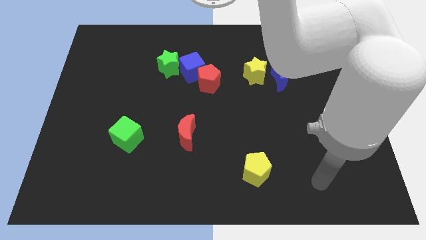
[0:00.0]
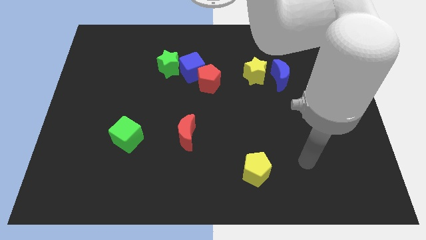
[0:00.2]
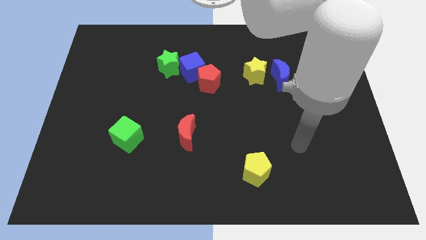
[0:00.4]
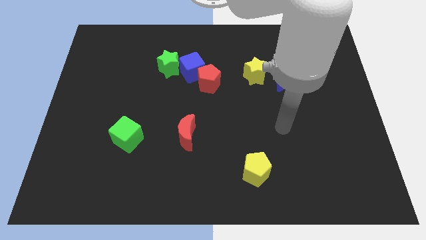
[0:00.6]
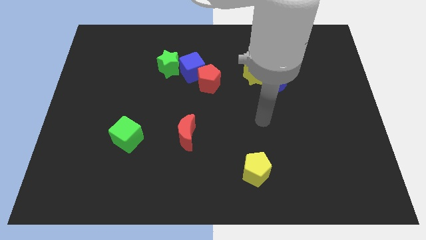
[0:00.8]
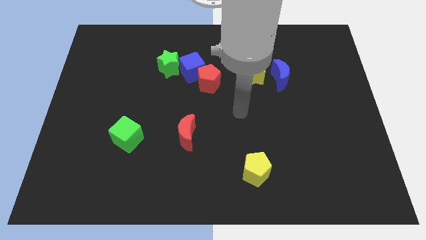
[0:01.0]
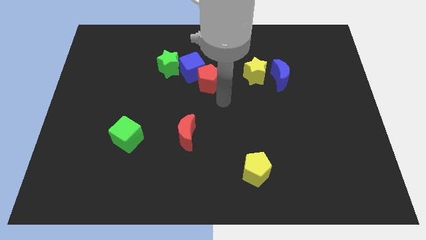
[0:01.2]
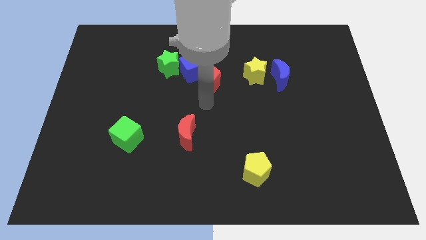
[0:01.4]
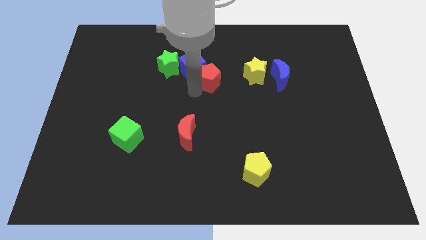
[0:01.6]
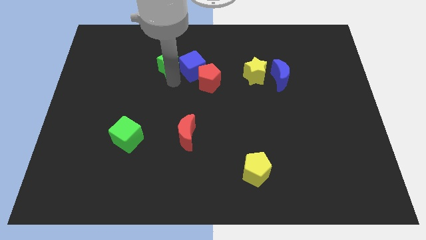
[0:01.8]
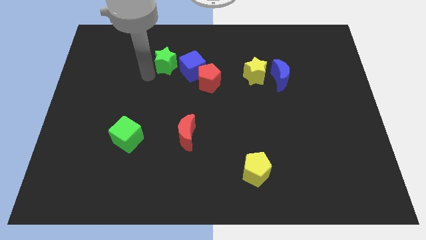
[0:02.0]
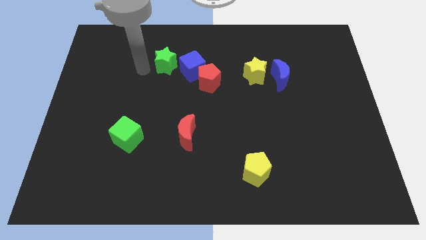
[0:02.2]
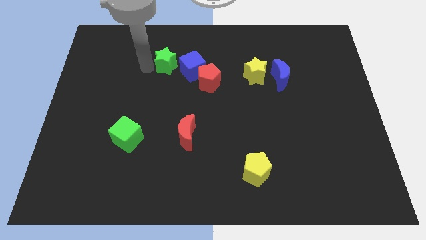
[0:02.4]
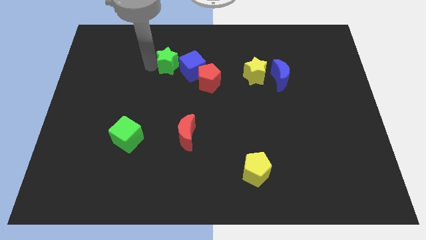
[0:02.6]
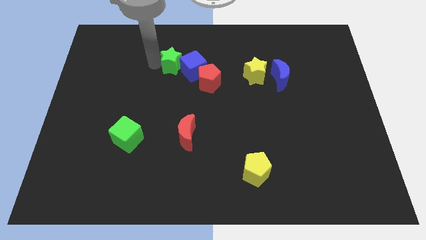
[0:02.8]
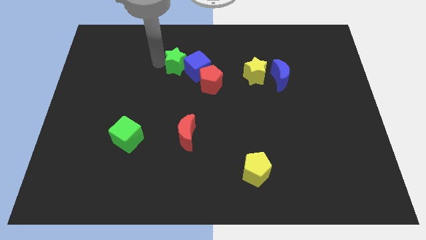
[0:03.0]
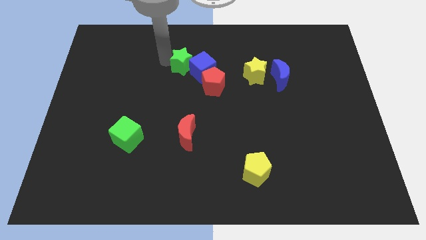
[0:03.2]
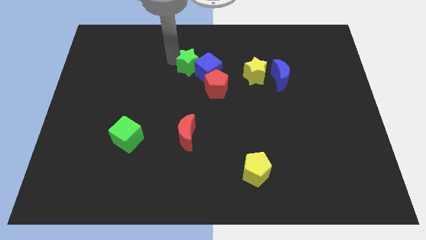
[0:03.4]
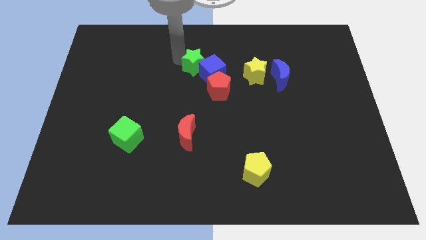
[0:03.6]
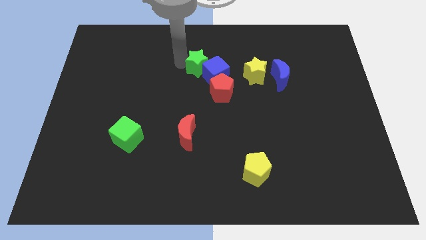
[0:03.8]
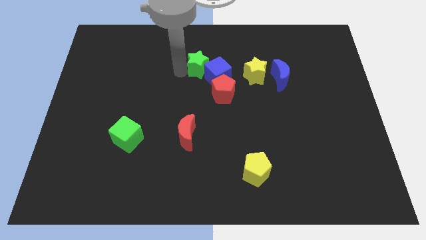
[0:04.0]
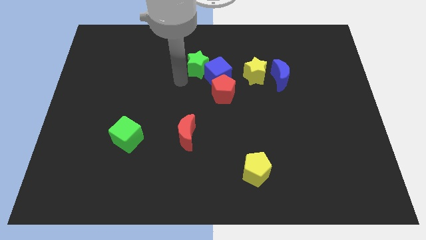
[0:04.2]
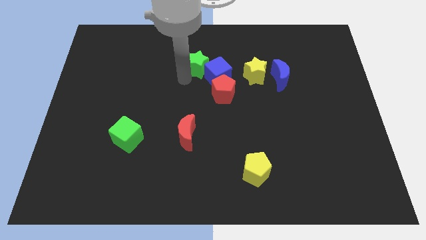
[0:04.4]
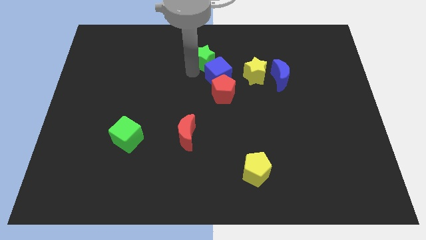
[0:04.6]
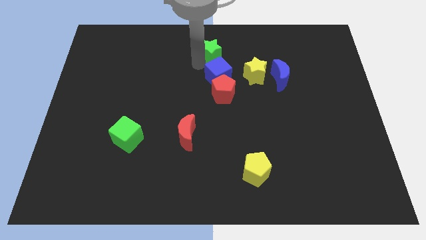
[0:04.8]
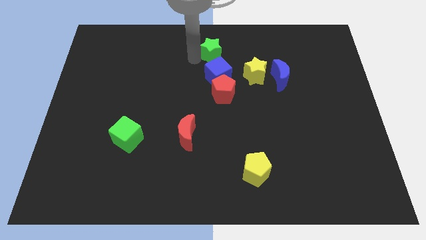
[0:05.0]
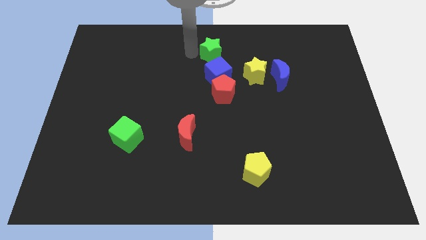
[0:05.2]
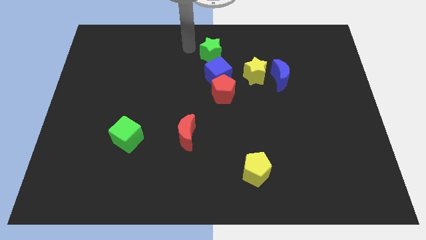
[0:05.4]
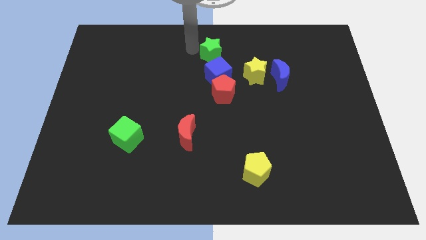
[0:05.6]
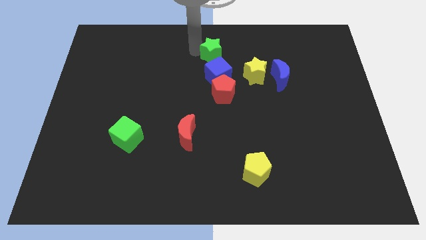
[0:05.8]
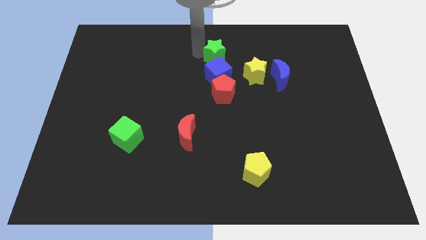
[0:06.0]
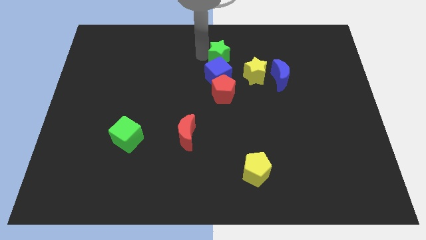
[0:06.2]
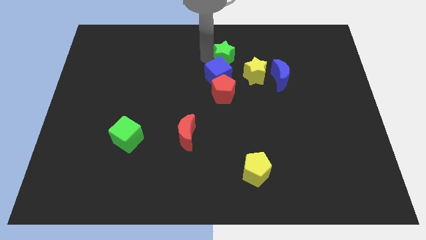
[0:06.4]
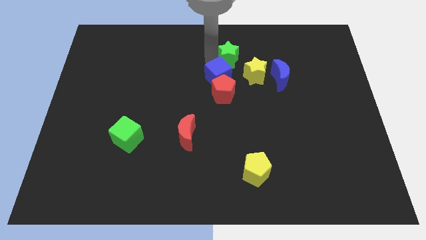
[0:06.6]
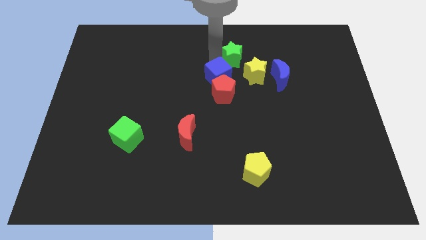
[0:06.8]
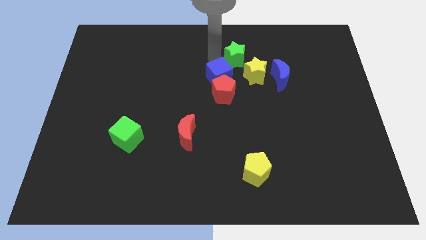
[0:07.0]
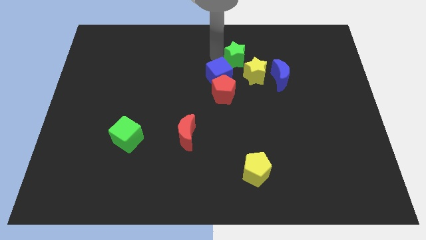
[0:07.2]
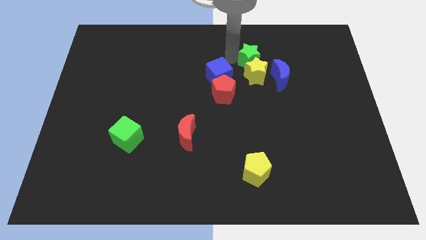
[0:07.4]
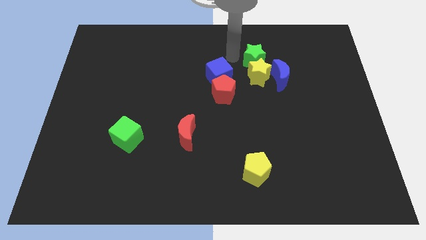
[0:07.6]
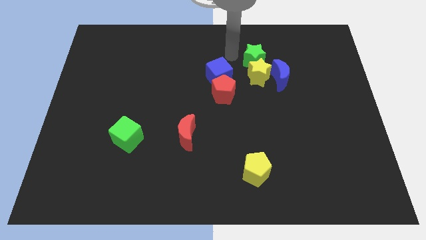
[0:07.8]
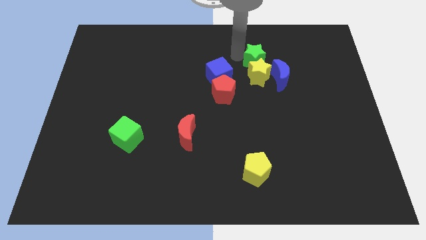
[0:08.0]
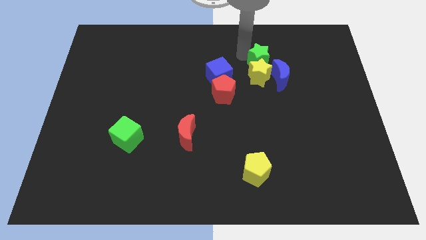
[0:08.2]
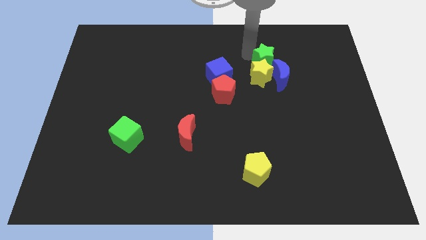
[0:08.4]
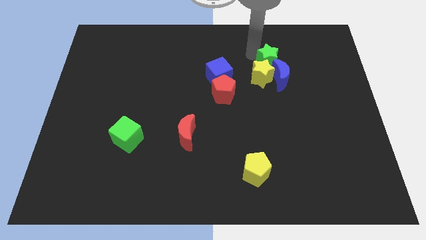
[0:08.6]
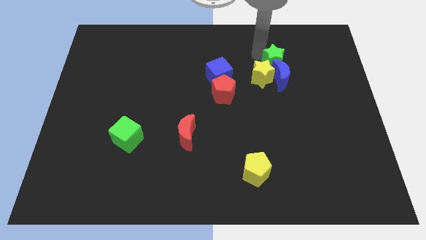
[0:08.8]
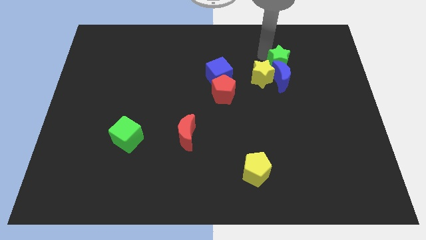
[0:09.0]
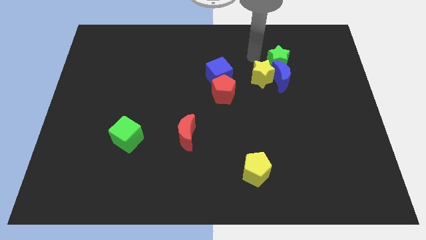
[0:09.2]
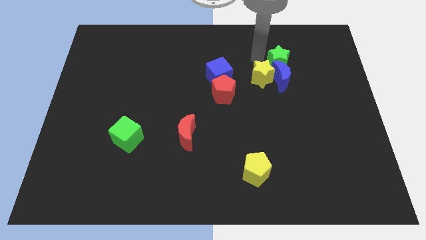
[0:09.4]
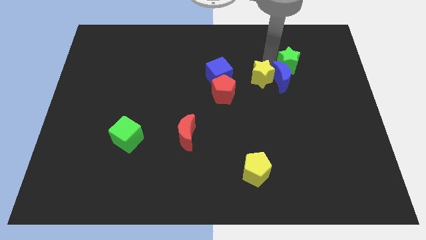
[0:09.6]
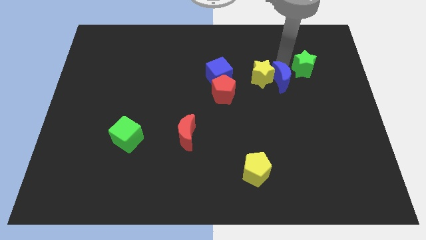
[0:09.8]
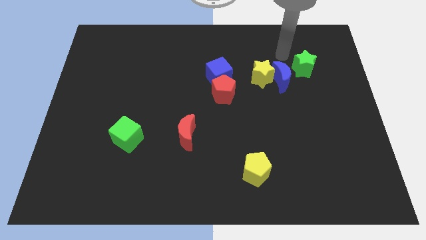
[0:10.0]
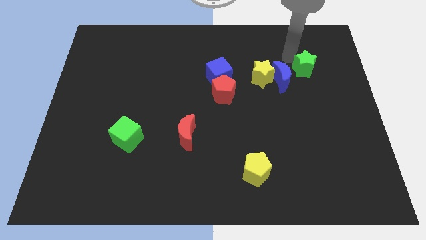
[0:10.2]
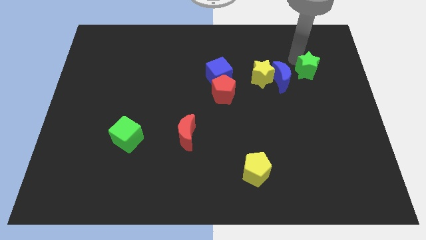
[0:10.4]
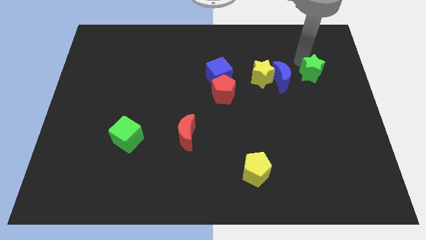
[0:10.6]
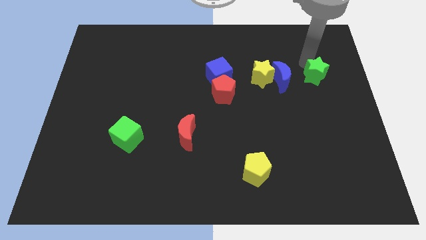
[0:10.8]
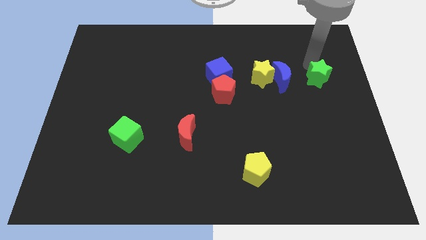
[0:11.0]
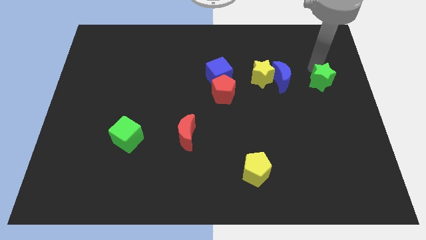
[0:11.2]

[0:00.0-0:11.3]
move the green star to the right side of the board

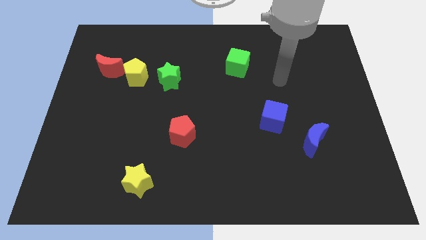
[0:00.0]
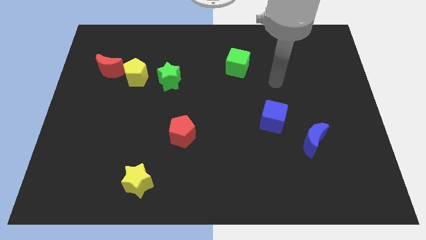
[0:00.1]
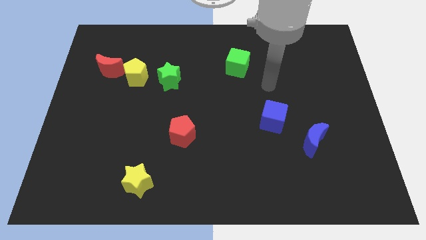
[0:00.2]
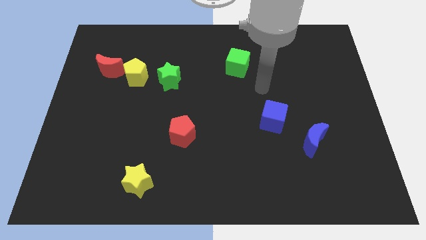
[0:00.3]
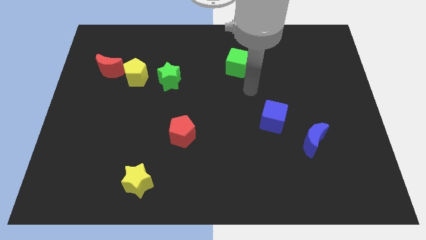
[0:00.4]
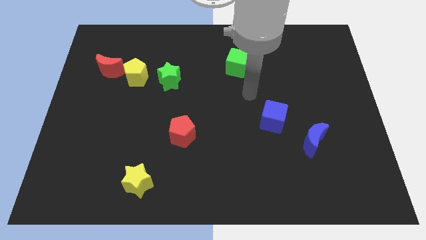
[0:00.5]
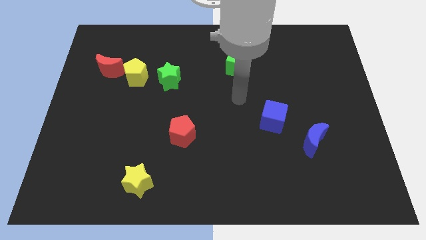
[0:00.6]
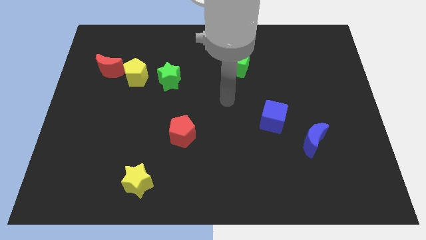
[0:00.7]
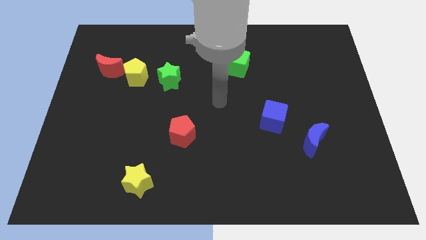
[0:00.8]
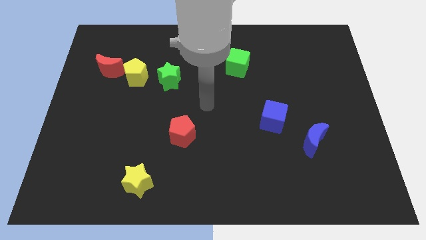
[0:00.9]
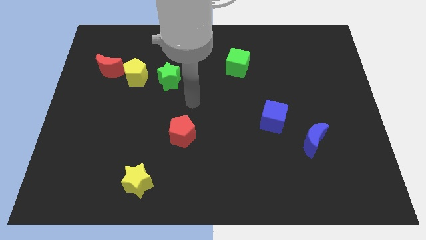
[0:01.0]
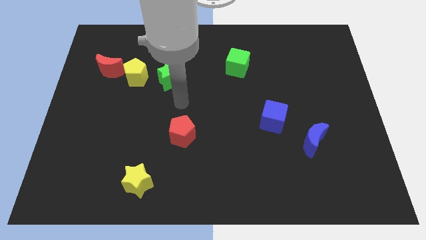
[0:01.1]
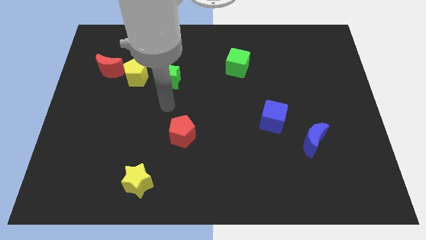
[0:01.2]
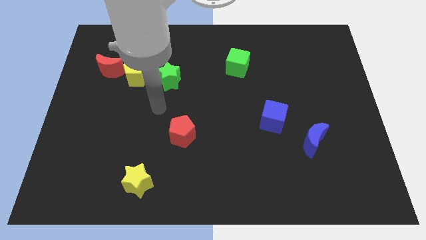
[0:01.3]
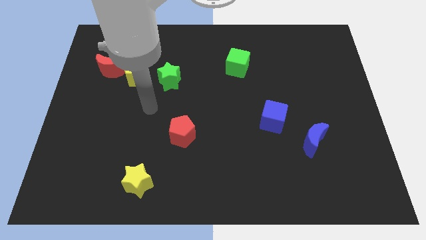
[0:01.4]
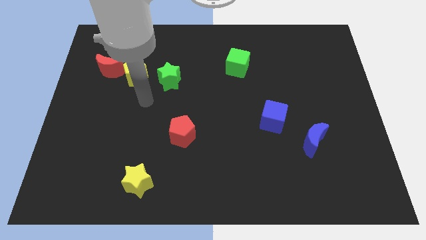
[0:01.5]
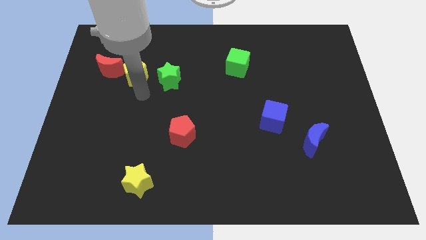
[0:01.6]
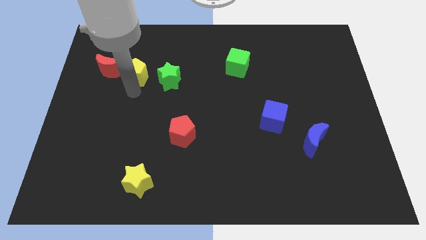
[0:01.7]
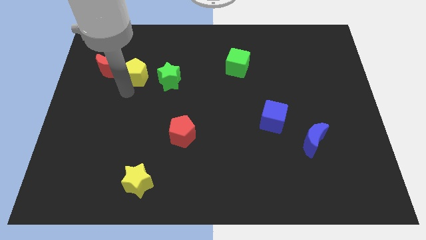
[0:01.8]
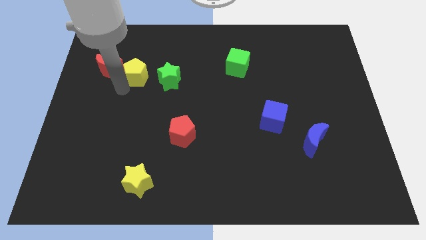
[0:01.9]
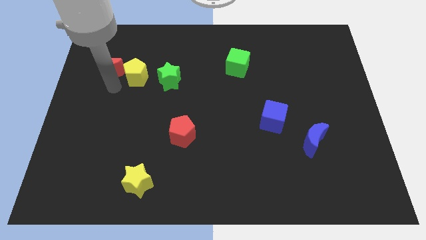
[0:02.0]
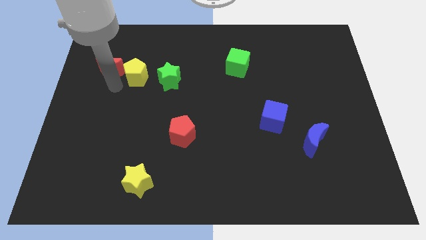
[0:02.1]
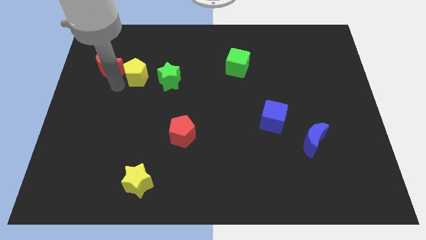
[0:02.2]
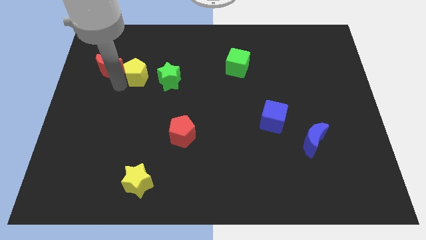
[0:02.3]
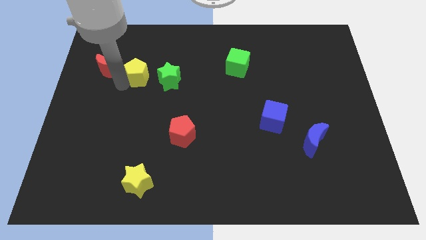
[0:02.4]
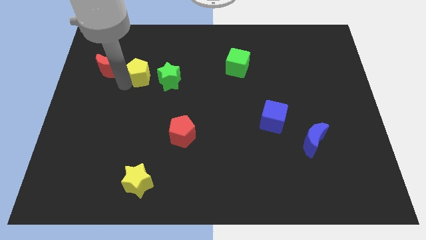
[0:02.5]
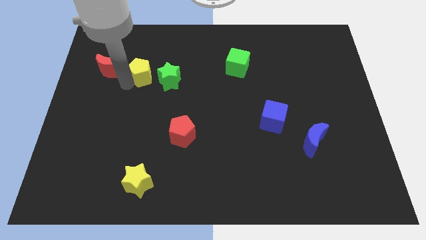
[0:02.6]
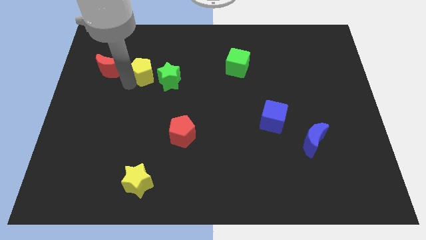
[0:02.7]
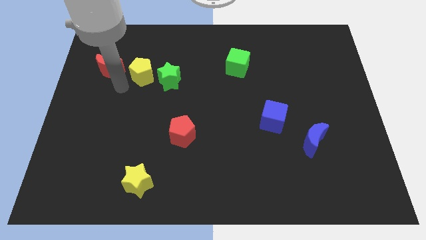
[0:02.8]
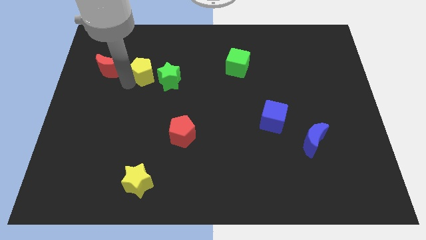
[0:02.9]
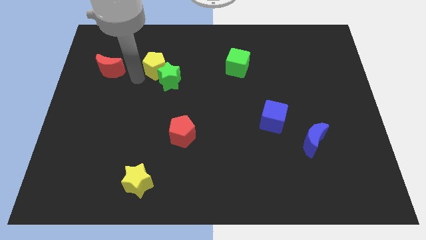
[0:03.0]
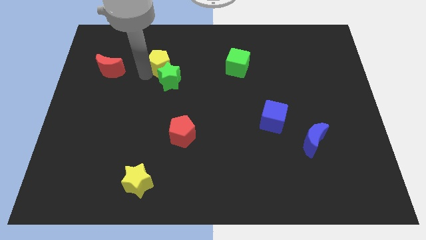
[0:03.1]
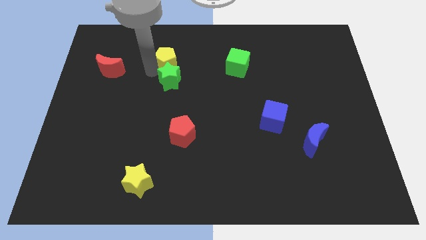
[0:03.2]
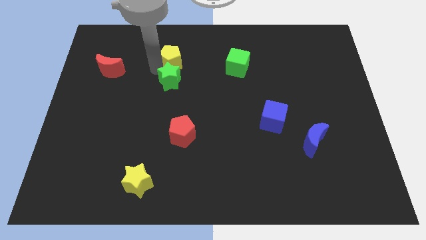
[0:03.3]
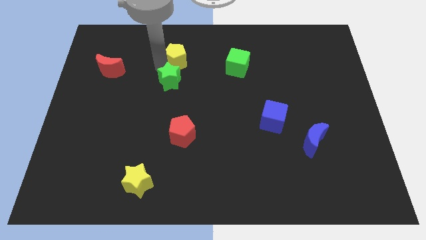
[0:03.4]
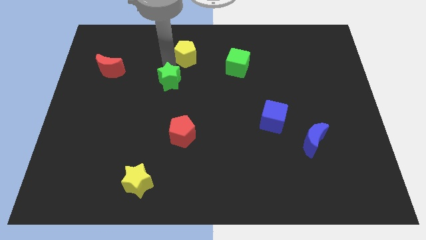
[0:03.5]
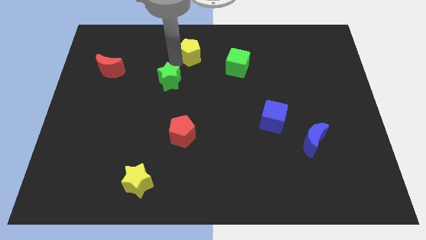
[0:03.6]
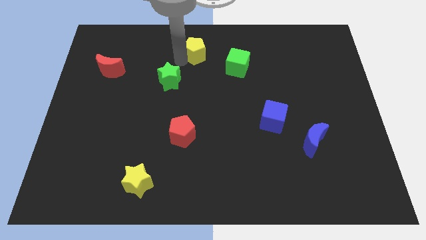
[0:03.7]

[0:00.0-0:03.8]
put the yellow pentagon to the top side
